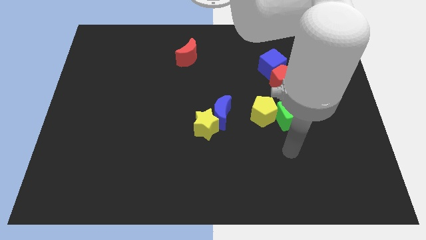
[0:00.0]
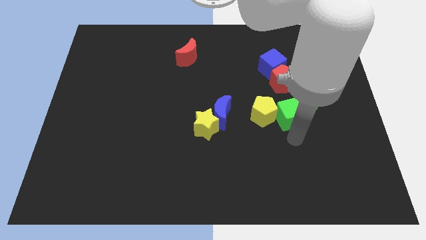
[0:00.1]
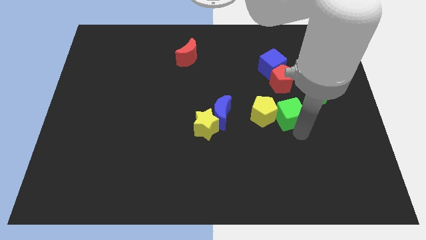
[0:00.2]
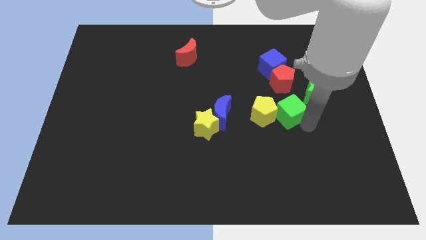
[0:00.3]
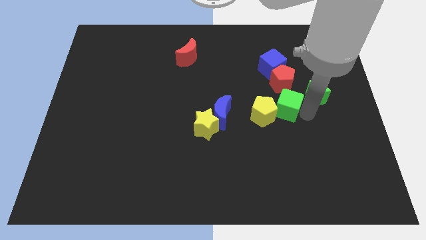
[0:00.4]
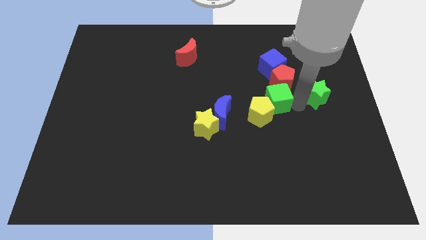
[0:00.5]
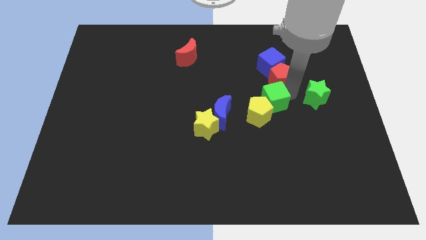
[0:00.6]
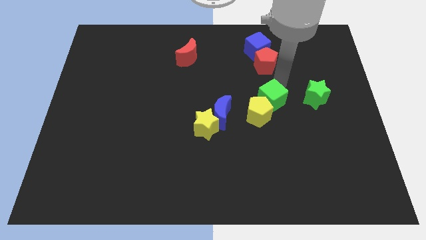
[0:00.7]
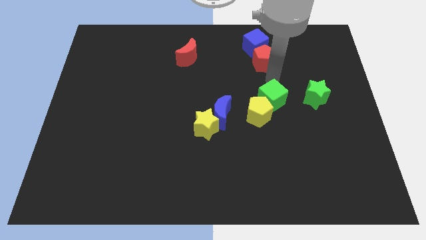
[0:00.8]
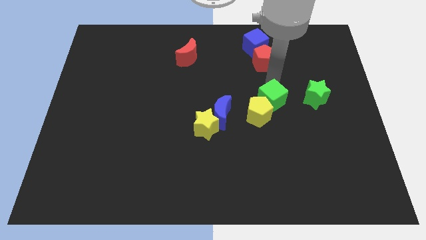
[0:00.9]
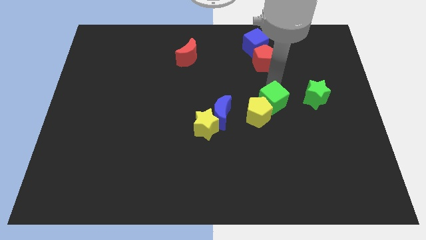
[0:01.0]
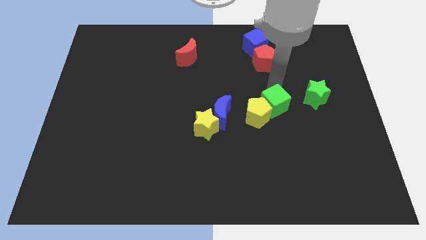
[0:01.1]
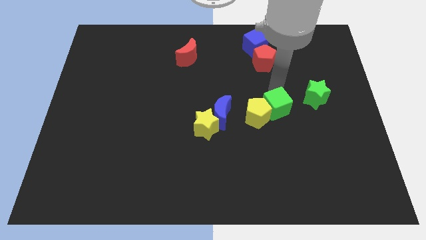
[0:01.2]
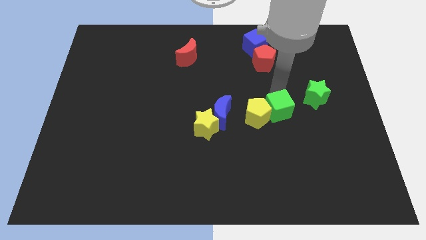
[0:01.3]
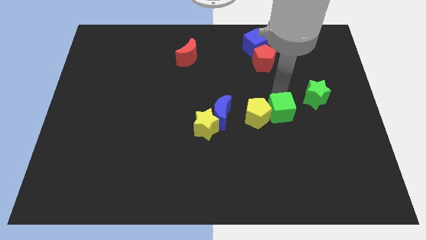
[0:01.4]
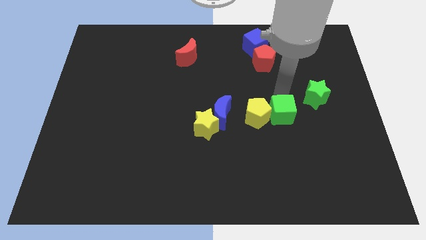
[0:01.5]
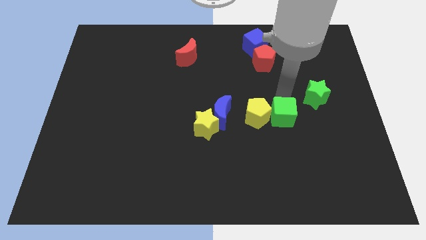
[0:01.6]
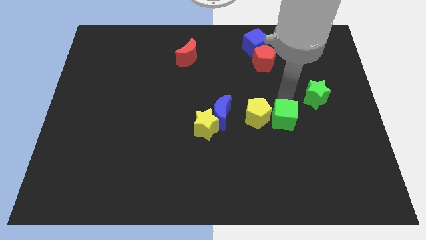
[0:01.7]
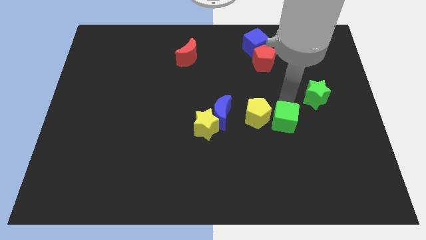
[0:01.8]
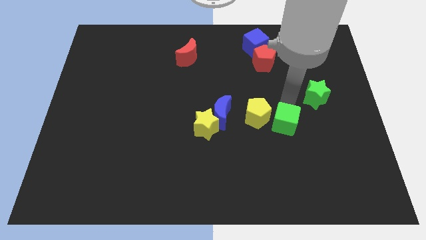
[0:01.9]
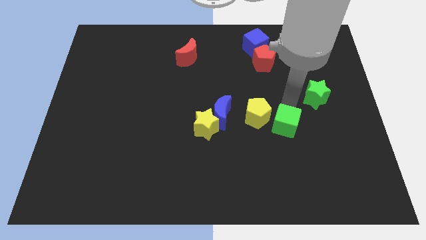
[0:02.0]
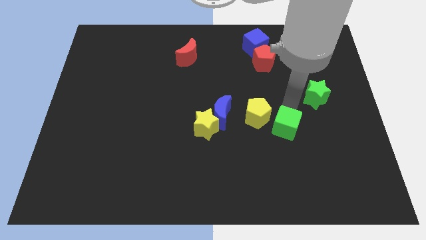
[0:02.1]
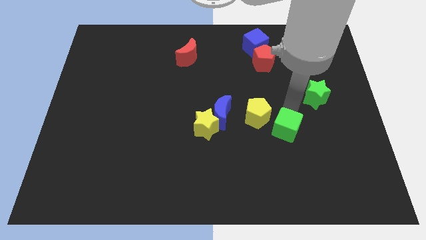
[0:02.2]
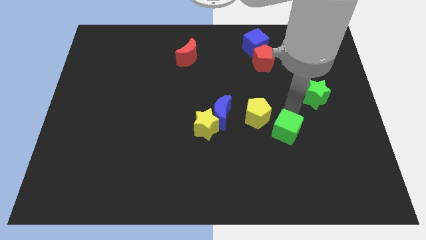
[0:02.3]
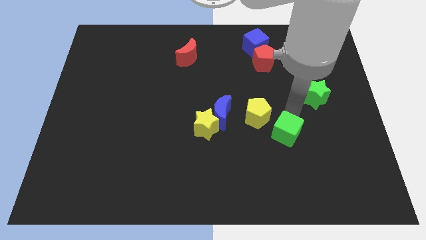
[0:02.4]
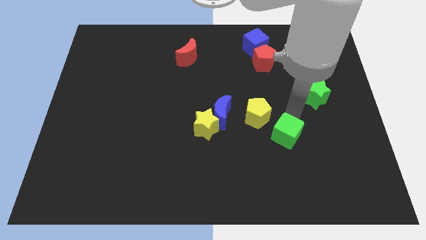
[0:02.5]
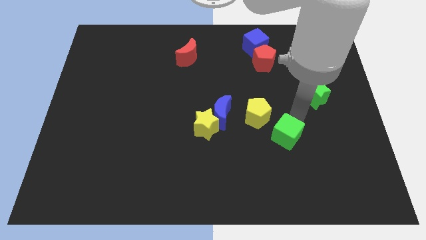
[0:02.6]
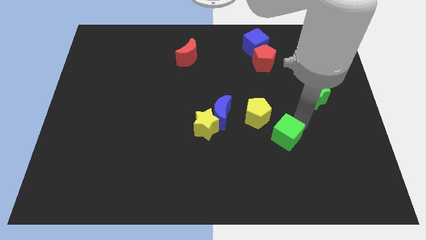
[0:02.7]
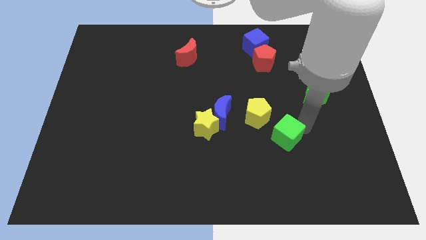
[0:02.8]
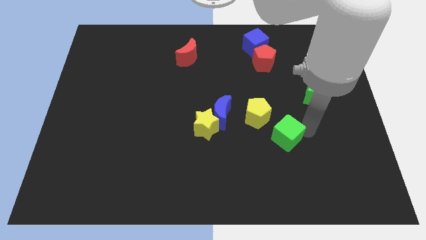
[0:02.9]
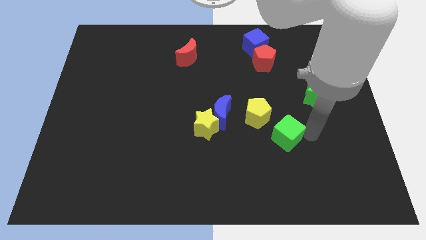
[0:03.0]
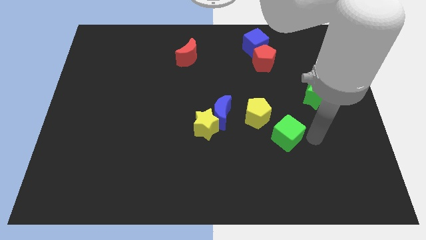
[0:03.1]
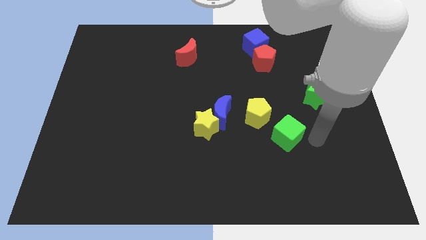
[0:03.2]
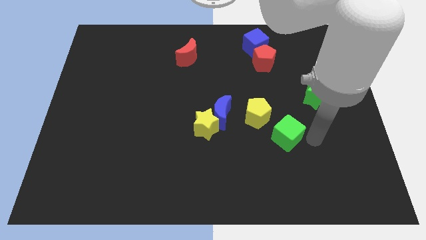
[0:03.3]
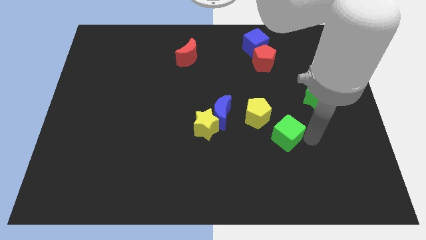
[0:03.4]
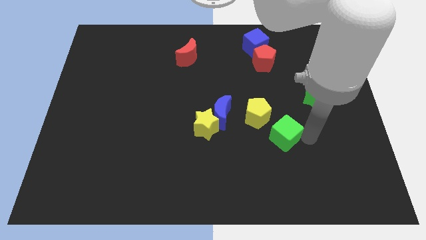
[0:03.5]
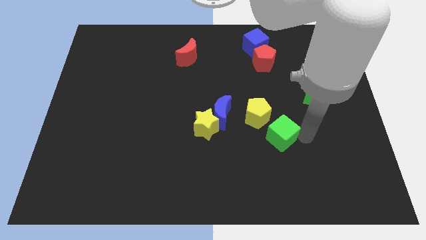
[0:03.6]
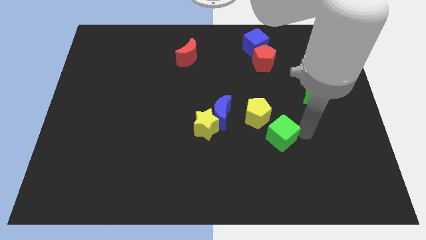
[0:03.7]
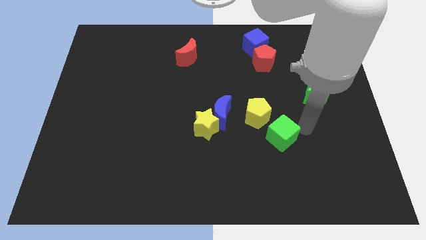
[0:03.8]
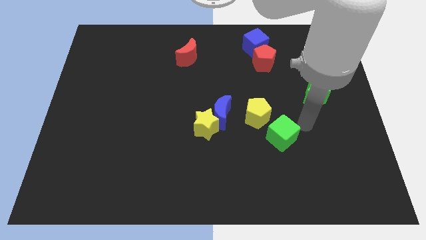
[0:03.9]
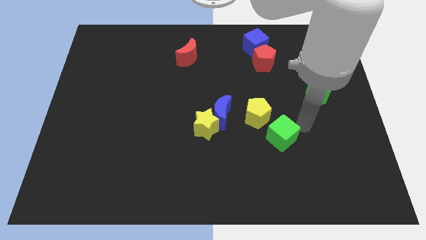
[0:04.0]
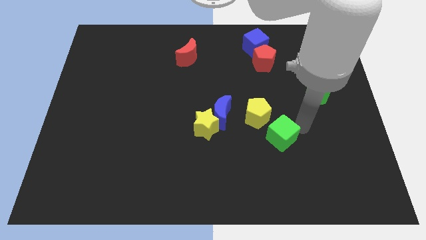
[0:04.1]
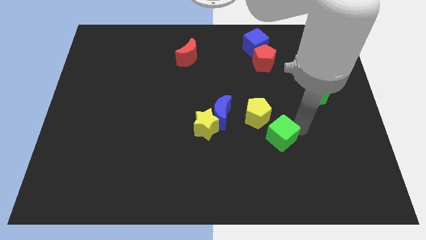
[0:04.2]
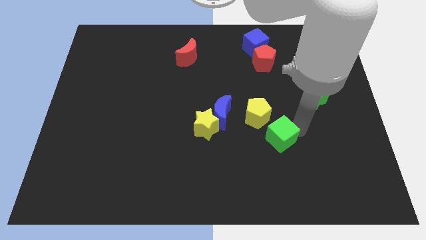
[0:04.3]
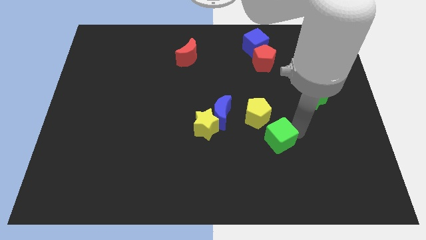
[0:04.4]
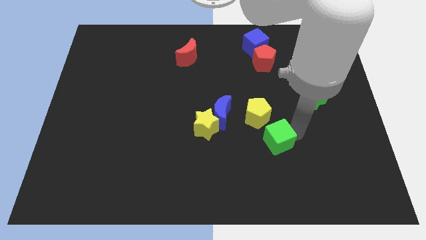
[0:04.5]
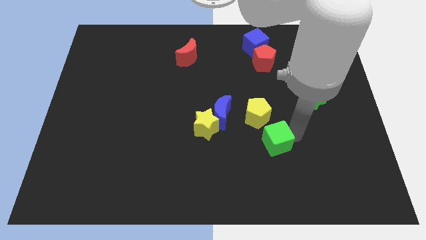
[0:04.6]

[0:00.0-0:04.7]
push the green cube down and left a bit

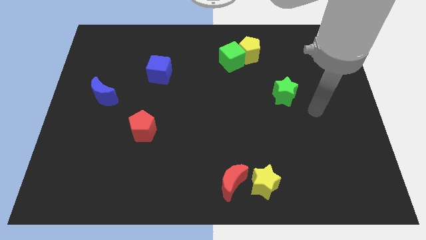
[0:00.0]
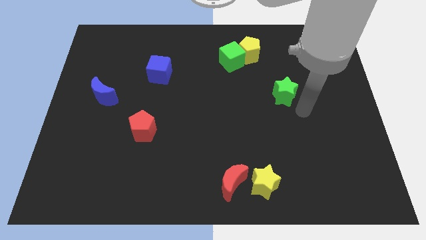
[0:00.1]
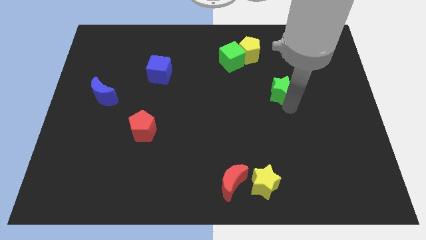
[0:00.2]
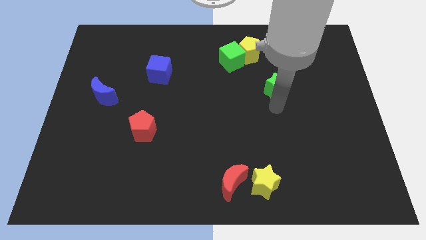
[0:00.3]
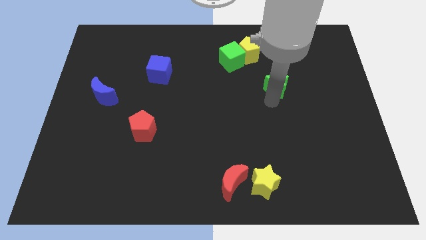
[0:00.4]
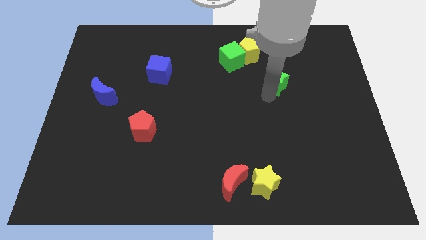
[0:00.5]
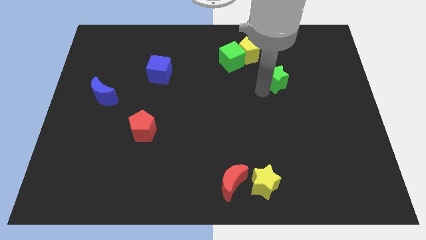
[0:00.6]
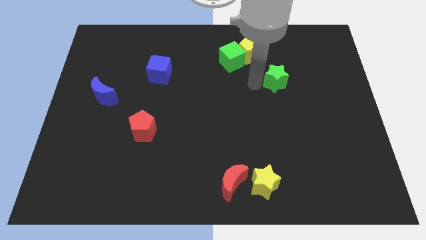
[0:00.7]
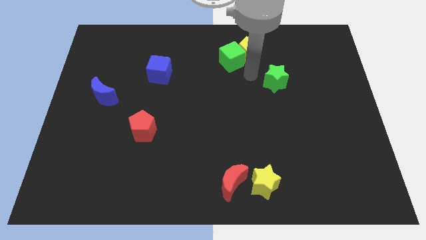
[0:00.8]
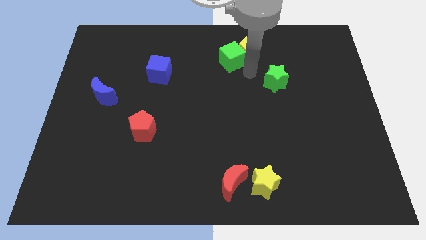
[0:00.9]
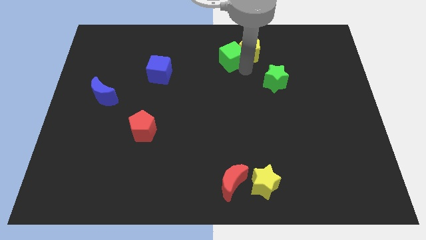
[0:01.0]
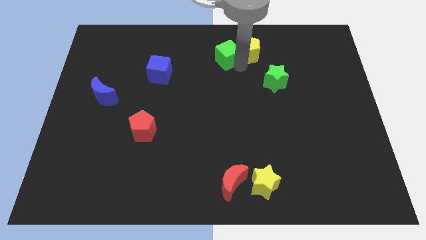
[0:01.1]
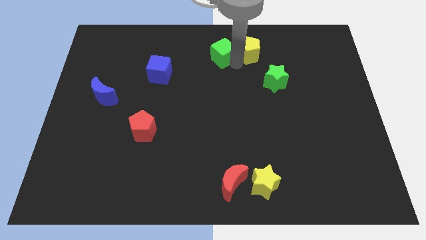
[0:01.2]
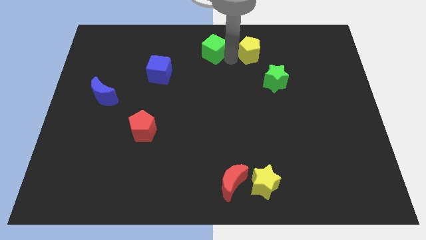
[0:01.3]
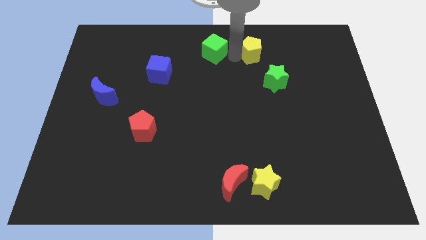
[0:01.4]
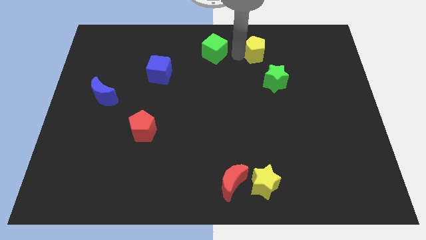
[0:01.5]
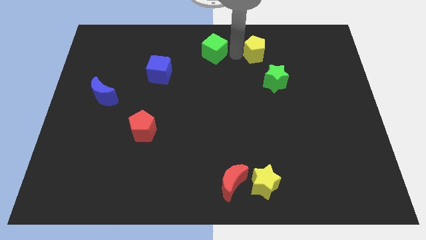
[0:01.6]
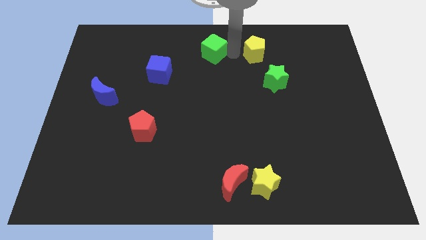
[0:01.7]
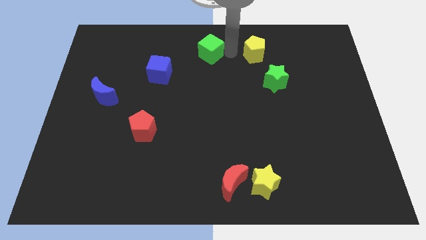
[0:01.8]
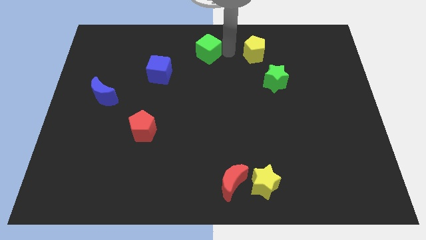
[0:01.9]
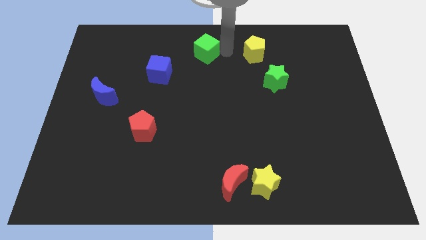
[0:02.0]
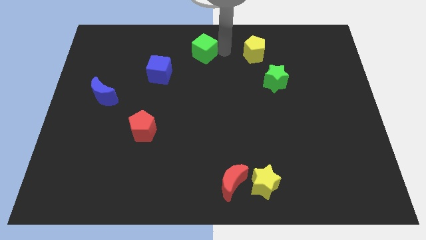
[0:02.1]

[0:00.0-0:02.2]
slide the green cube a little left

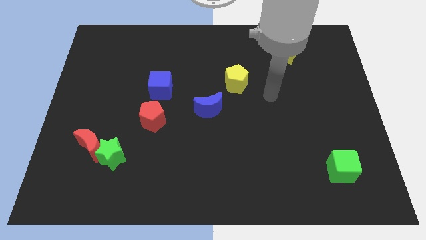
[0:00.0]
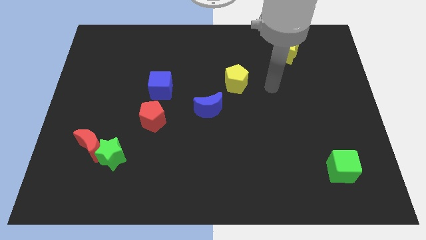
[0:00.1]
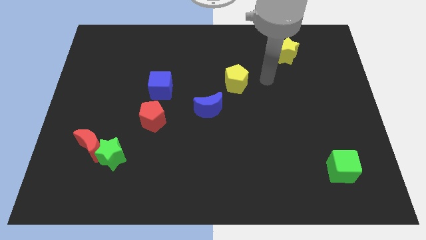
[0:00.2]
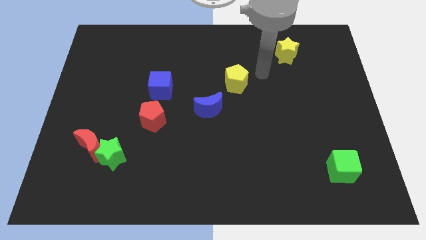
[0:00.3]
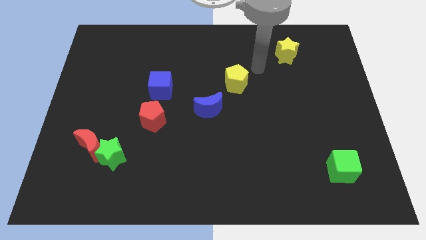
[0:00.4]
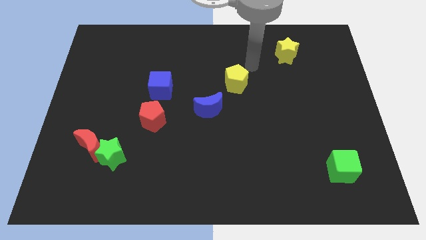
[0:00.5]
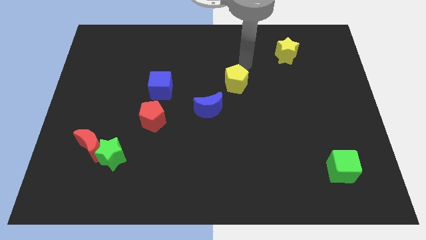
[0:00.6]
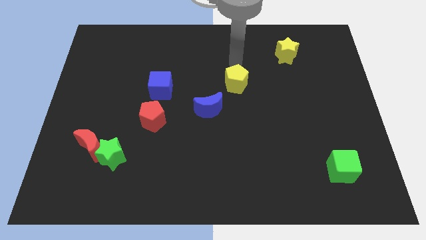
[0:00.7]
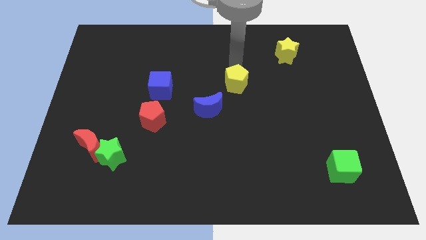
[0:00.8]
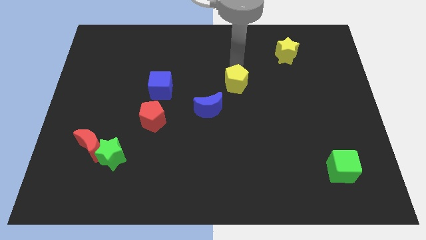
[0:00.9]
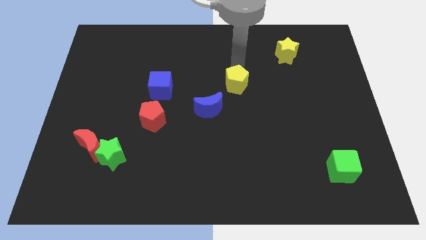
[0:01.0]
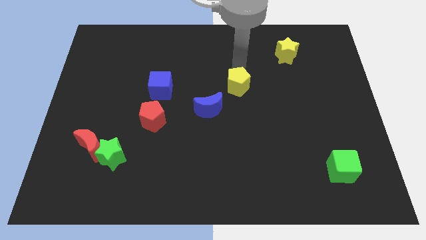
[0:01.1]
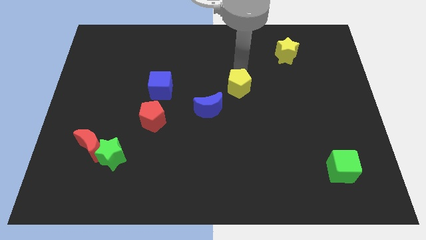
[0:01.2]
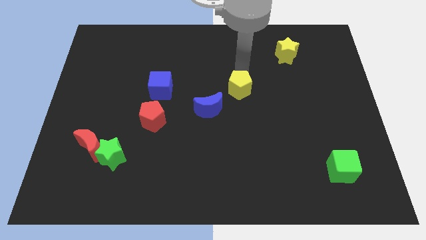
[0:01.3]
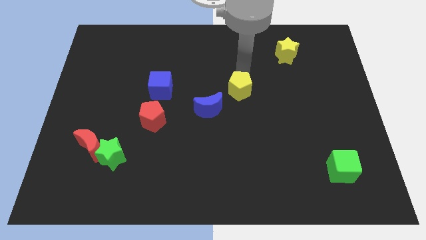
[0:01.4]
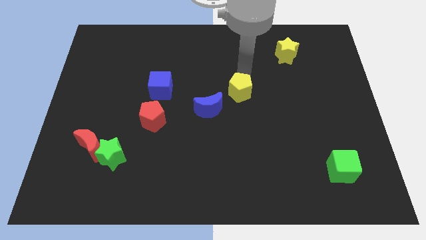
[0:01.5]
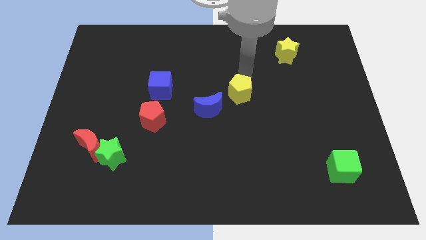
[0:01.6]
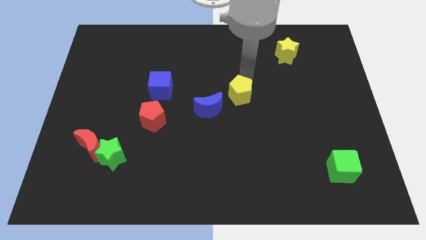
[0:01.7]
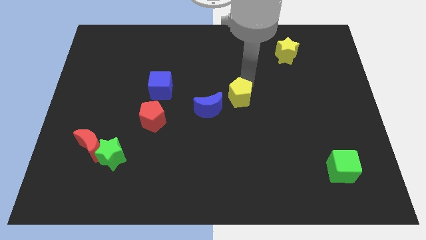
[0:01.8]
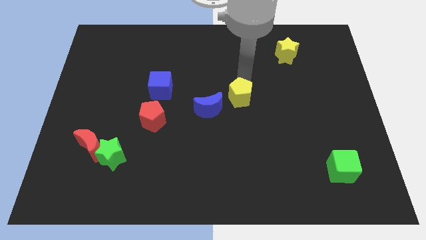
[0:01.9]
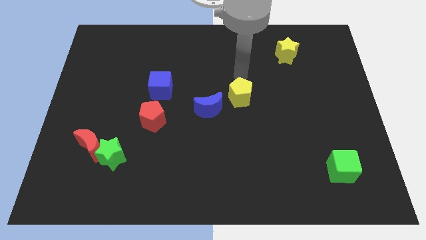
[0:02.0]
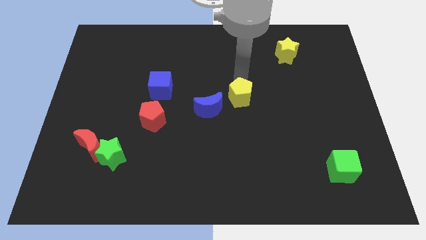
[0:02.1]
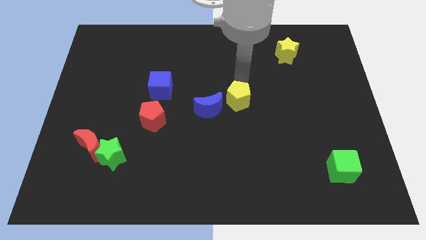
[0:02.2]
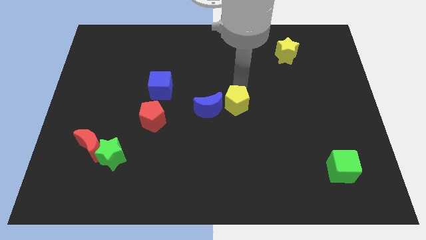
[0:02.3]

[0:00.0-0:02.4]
move the yellow pentagon a bit down
